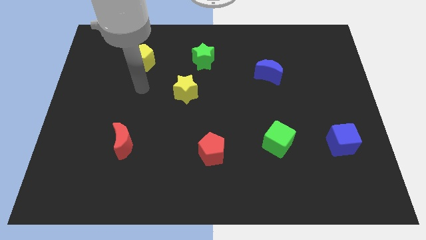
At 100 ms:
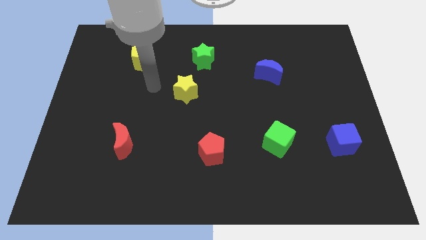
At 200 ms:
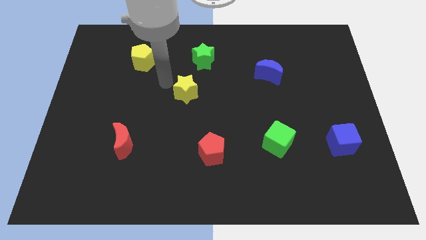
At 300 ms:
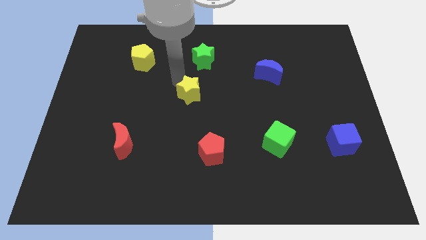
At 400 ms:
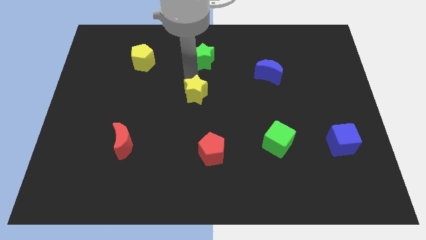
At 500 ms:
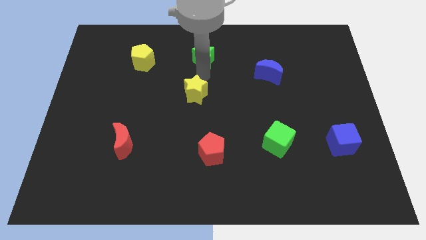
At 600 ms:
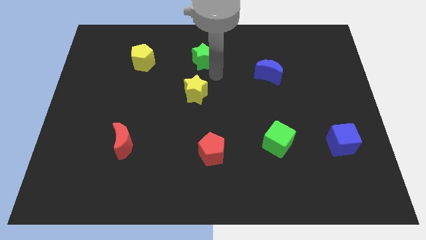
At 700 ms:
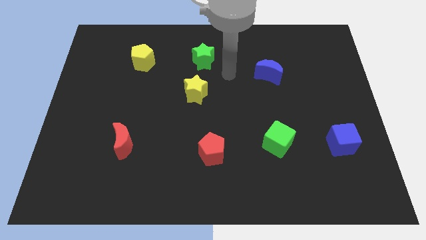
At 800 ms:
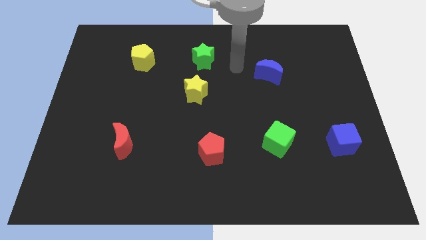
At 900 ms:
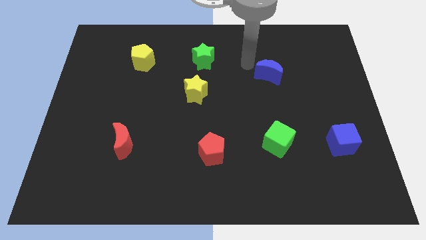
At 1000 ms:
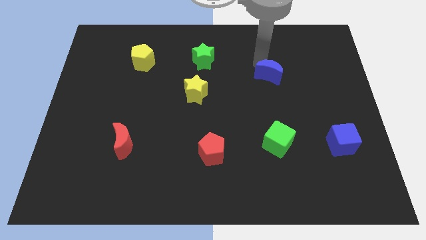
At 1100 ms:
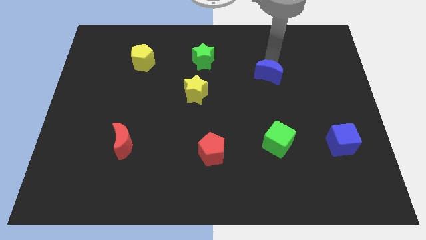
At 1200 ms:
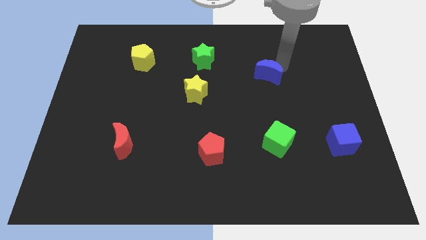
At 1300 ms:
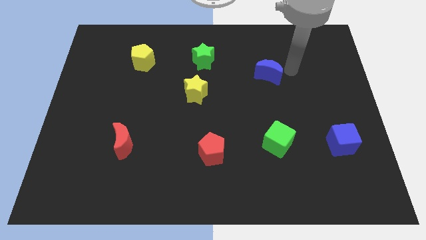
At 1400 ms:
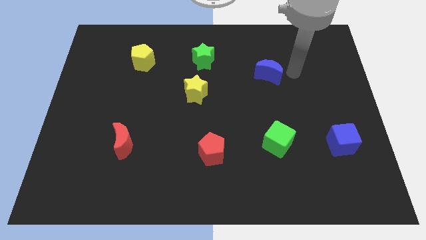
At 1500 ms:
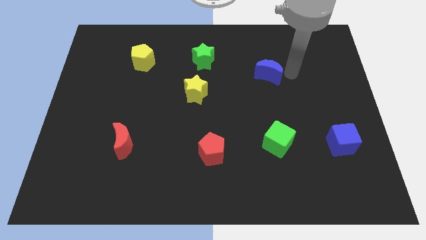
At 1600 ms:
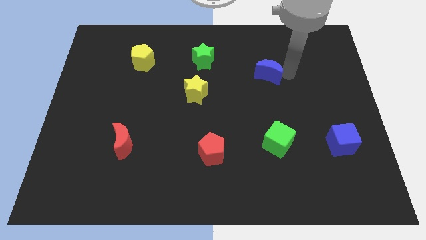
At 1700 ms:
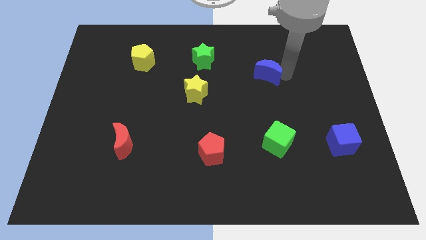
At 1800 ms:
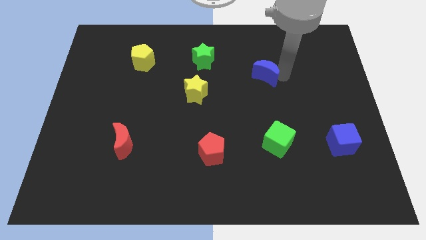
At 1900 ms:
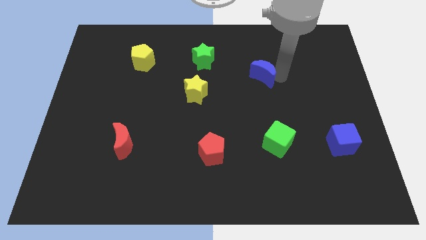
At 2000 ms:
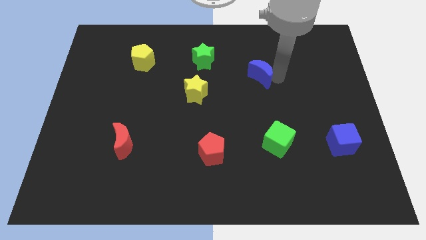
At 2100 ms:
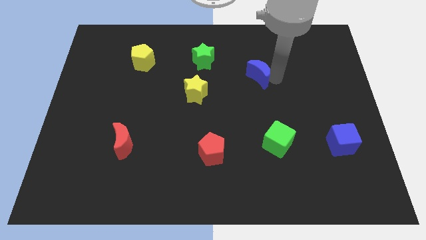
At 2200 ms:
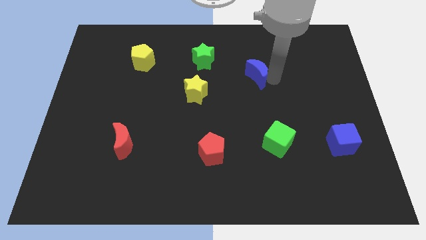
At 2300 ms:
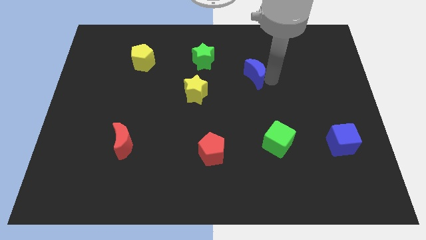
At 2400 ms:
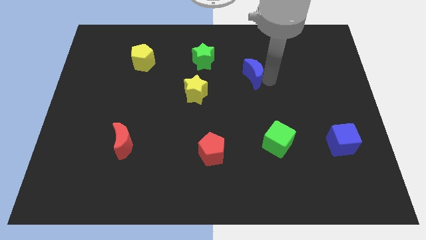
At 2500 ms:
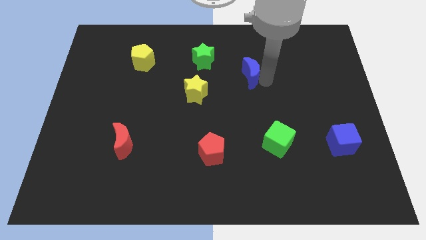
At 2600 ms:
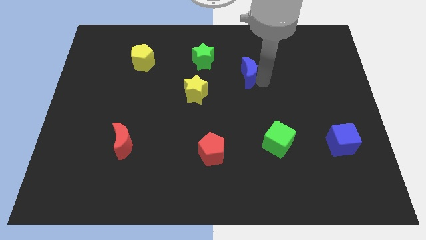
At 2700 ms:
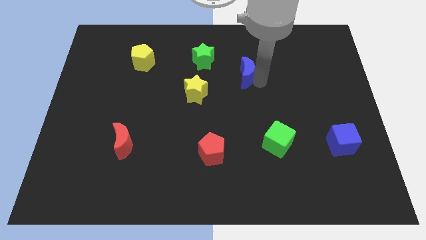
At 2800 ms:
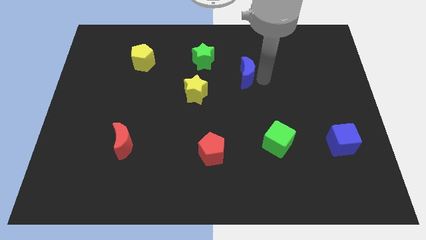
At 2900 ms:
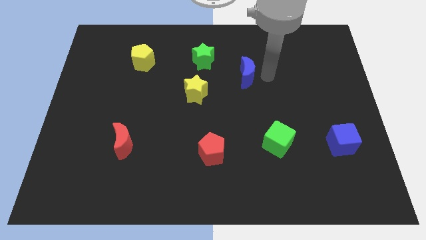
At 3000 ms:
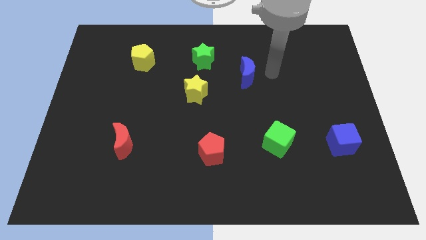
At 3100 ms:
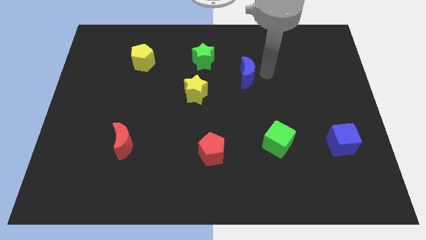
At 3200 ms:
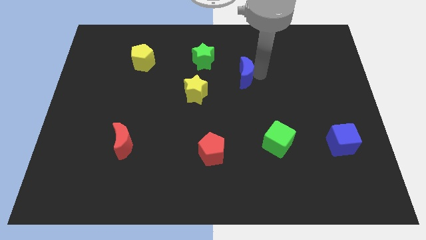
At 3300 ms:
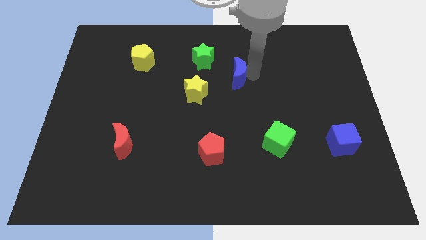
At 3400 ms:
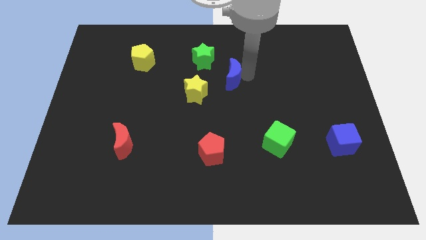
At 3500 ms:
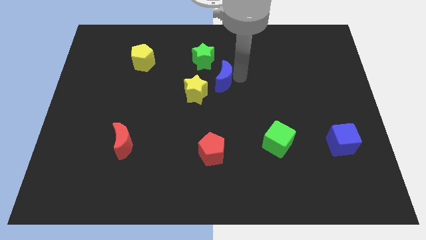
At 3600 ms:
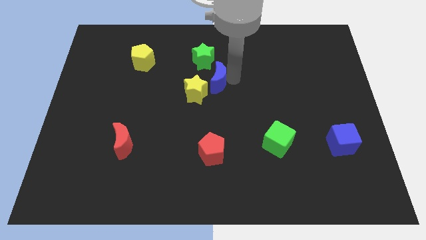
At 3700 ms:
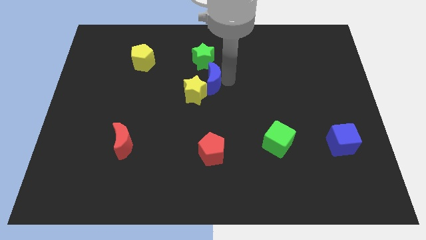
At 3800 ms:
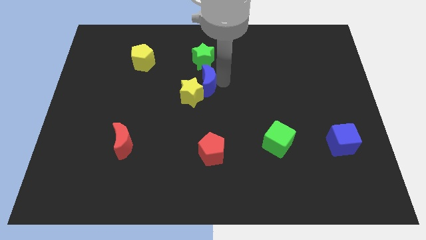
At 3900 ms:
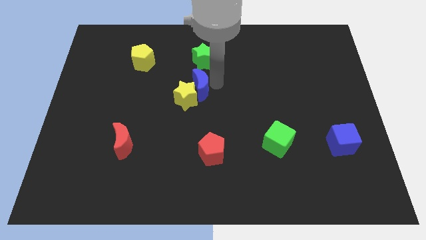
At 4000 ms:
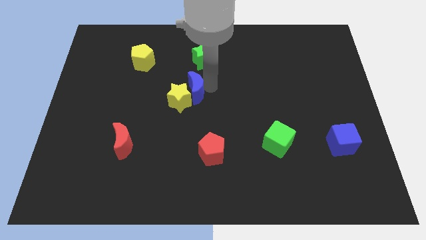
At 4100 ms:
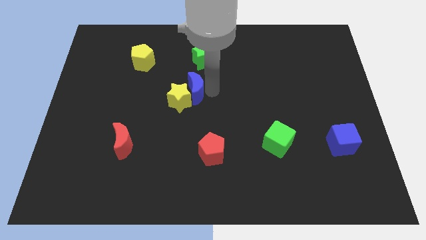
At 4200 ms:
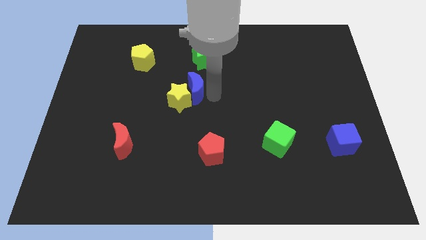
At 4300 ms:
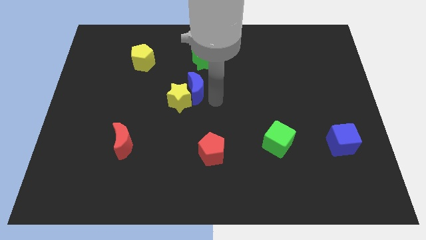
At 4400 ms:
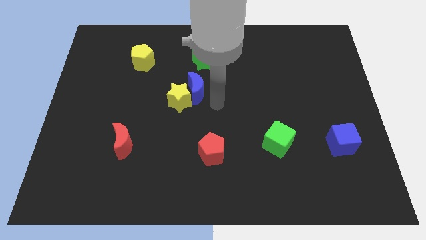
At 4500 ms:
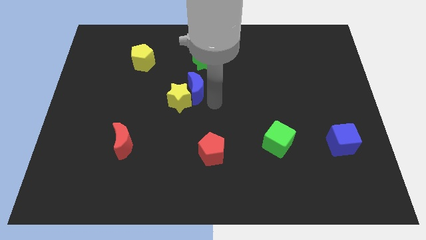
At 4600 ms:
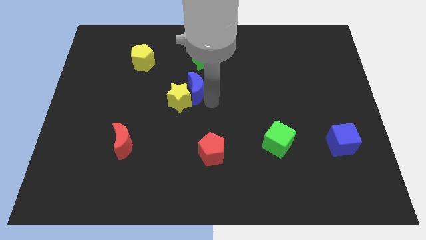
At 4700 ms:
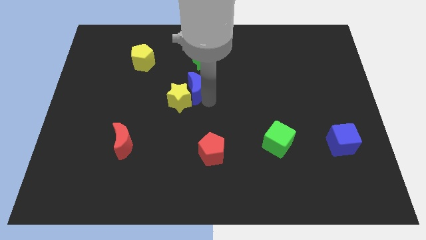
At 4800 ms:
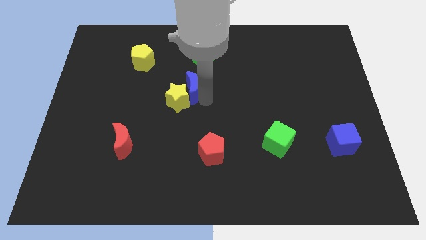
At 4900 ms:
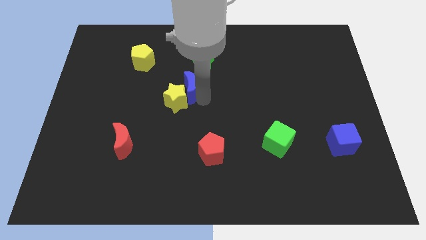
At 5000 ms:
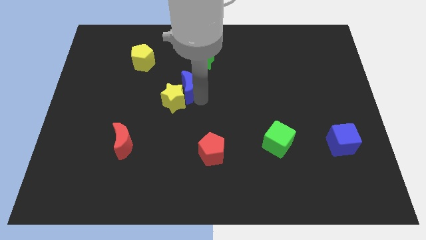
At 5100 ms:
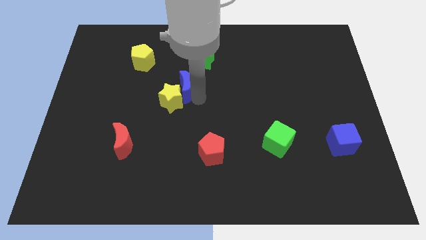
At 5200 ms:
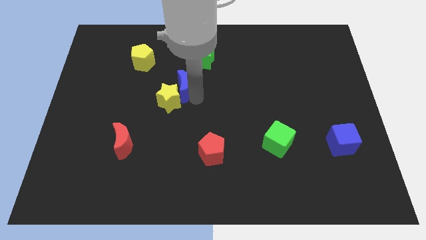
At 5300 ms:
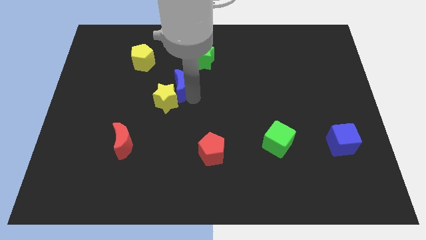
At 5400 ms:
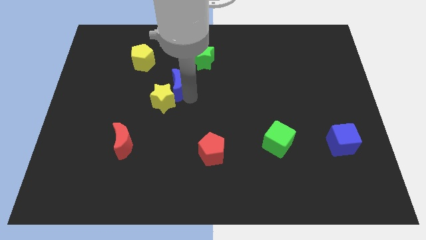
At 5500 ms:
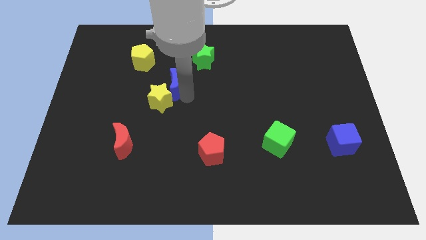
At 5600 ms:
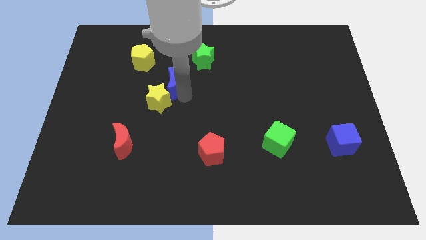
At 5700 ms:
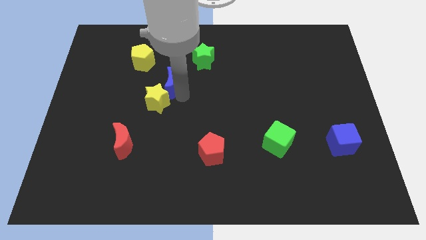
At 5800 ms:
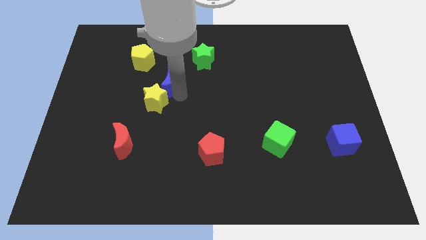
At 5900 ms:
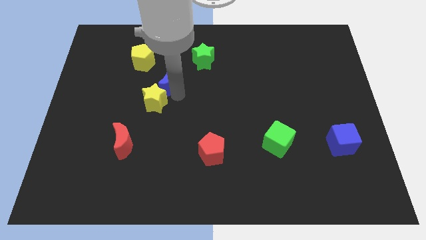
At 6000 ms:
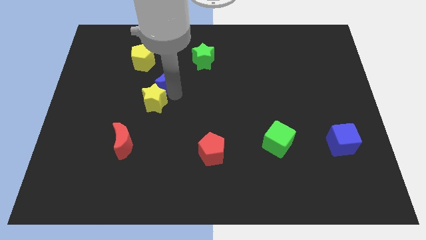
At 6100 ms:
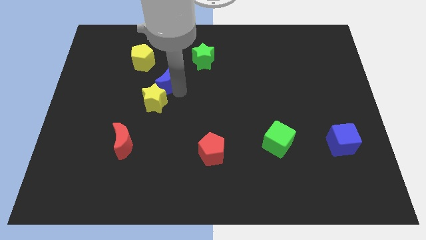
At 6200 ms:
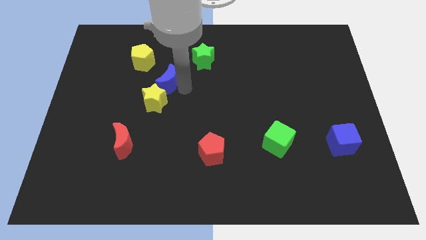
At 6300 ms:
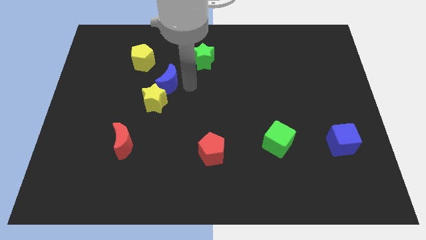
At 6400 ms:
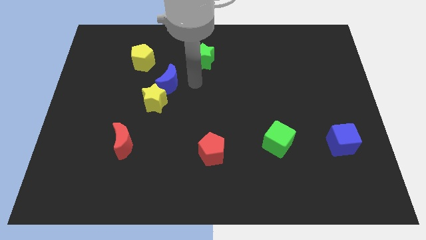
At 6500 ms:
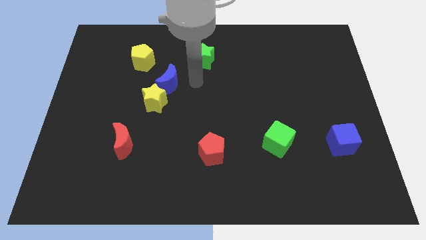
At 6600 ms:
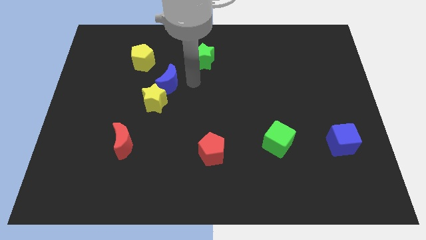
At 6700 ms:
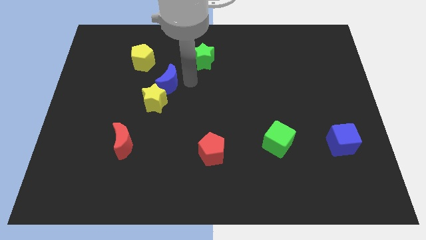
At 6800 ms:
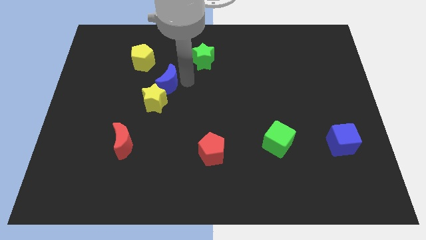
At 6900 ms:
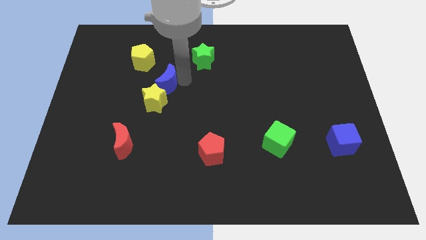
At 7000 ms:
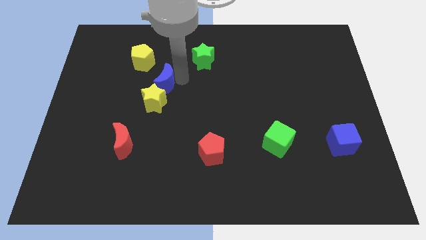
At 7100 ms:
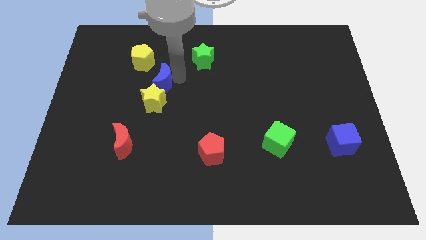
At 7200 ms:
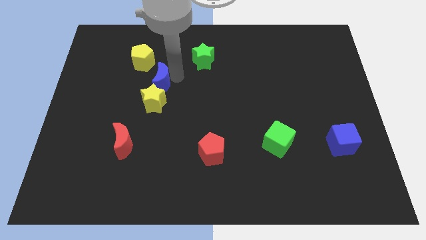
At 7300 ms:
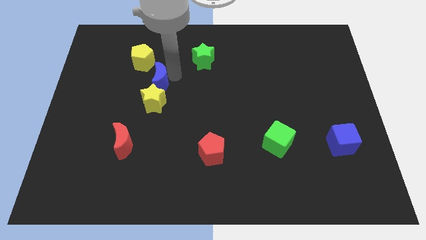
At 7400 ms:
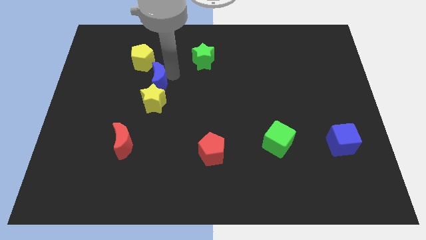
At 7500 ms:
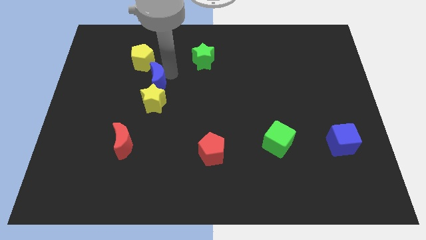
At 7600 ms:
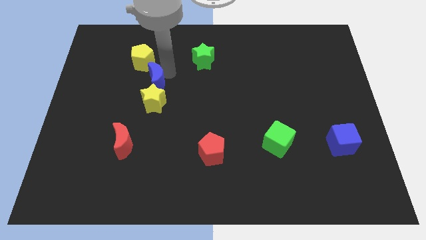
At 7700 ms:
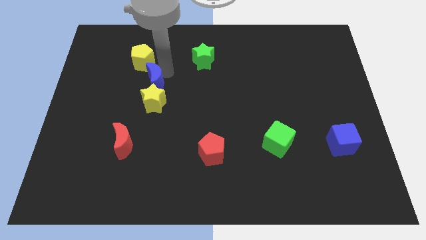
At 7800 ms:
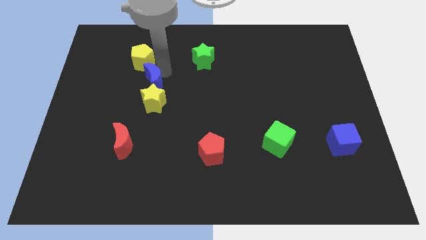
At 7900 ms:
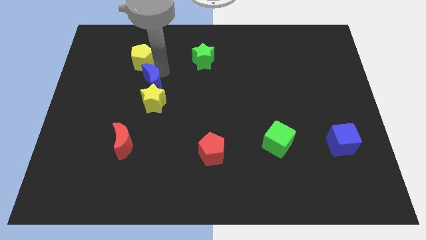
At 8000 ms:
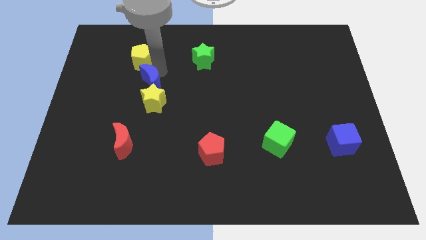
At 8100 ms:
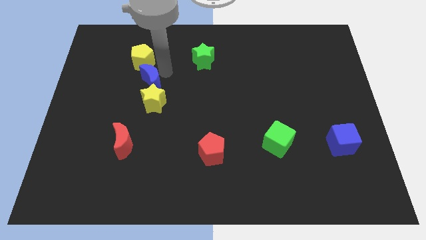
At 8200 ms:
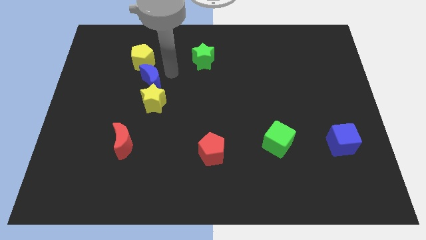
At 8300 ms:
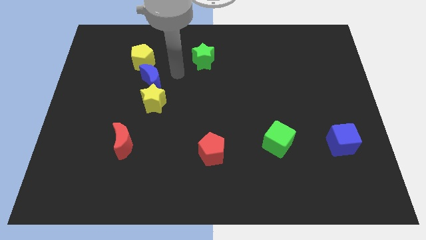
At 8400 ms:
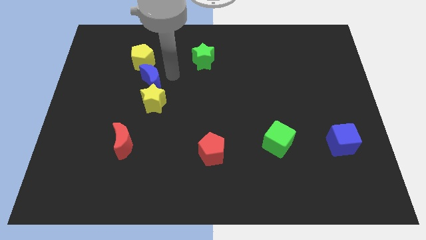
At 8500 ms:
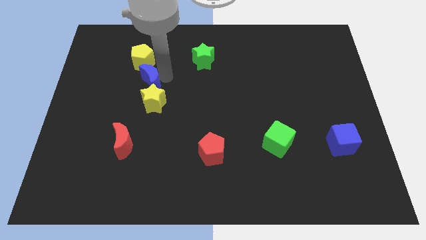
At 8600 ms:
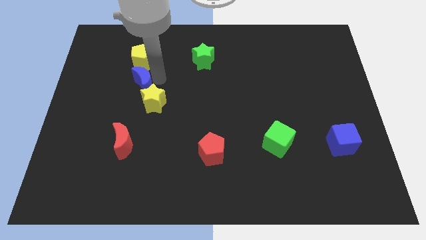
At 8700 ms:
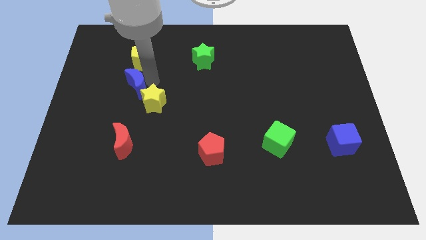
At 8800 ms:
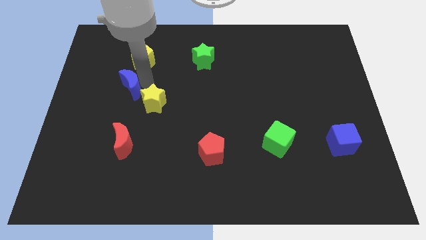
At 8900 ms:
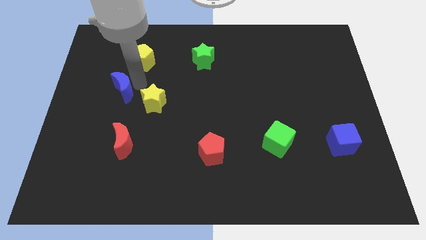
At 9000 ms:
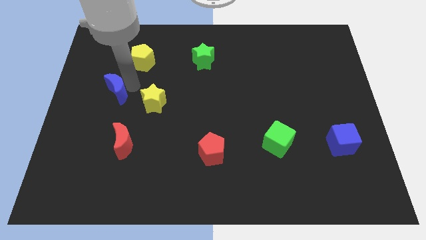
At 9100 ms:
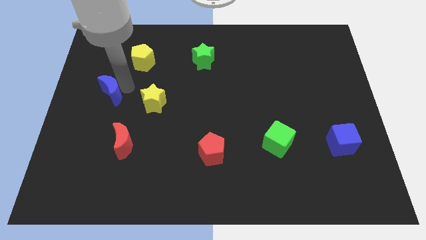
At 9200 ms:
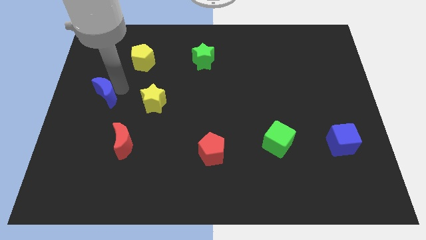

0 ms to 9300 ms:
slide the blue moon to the left side of the board
